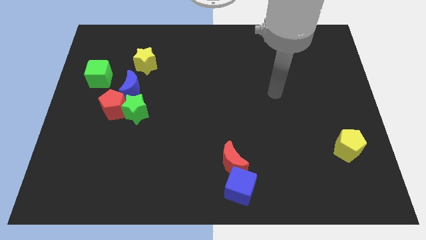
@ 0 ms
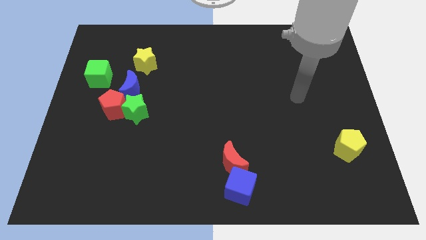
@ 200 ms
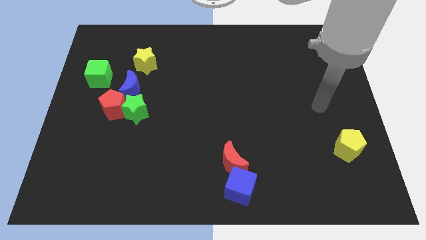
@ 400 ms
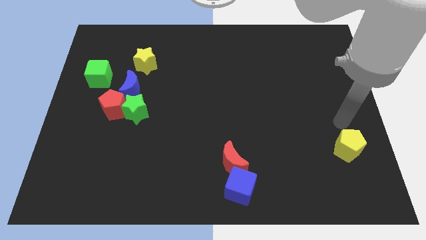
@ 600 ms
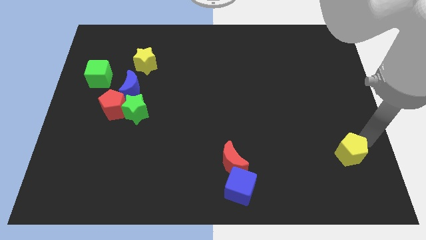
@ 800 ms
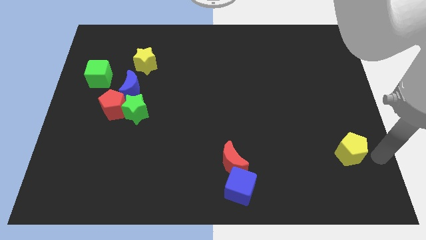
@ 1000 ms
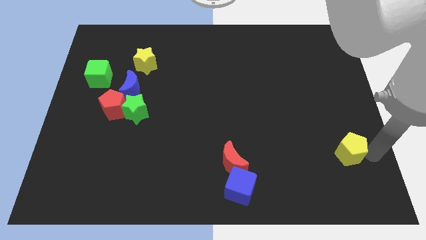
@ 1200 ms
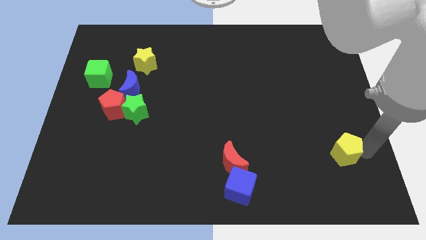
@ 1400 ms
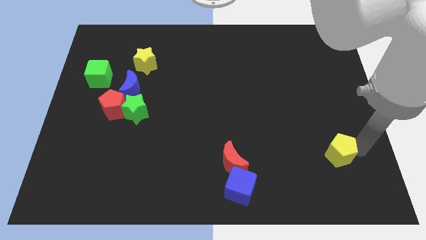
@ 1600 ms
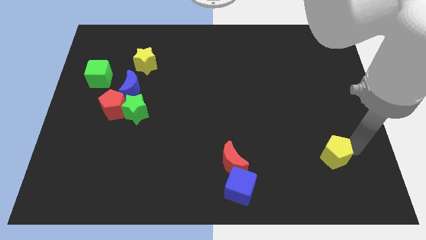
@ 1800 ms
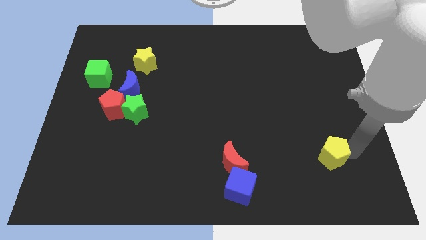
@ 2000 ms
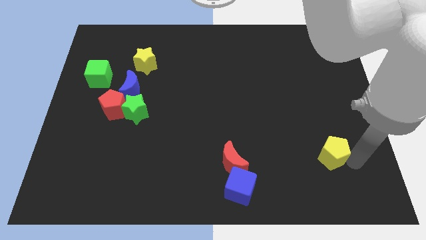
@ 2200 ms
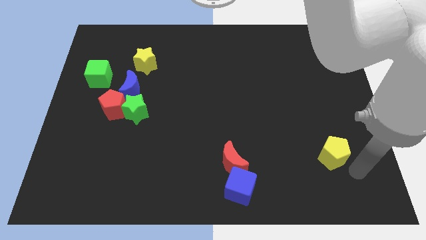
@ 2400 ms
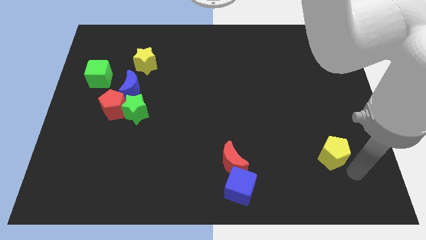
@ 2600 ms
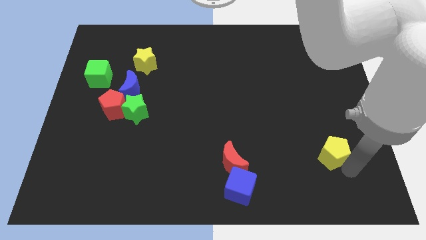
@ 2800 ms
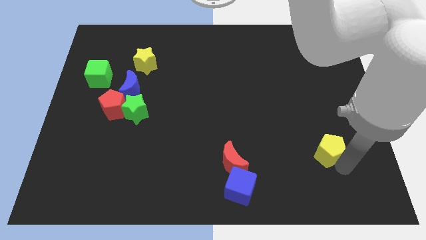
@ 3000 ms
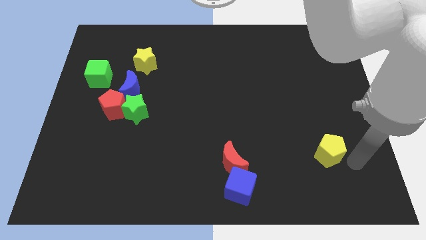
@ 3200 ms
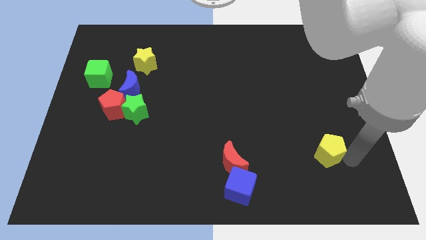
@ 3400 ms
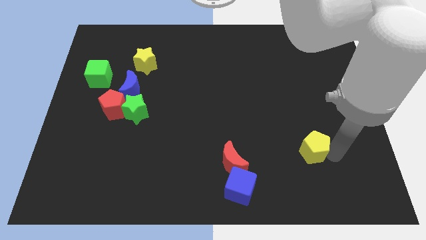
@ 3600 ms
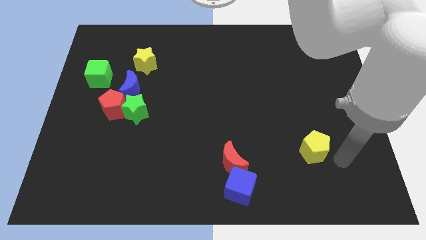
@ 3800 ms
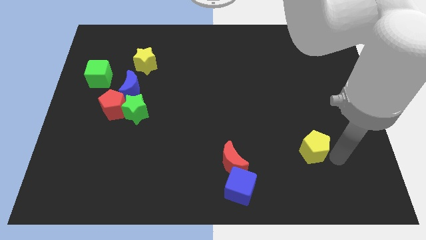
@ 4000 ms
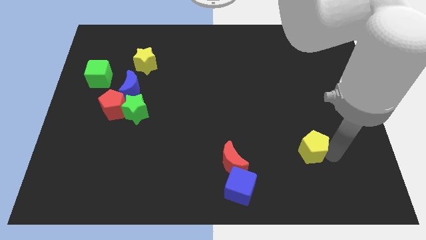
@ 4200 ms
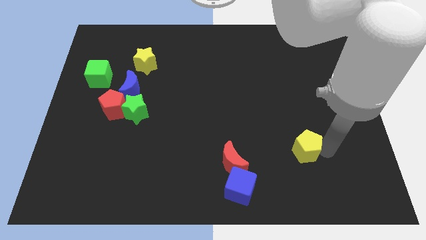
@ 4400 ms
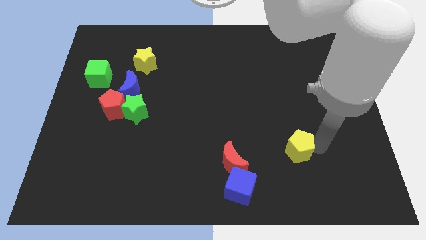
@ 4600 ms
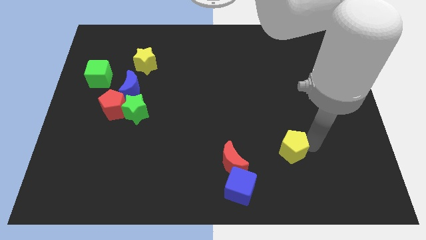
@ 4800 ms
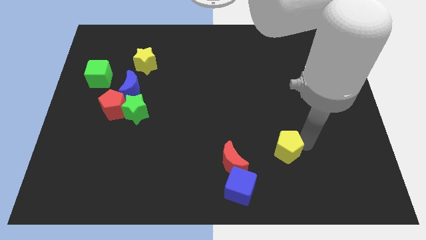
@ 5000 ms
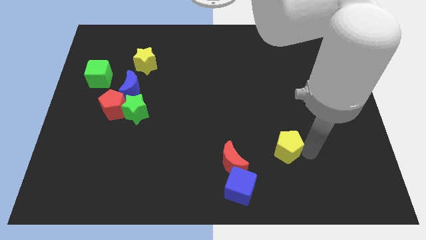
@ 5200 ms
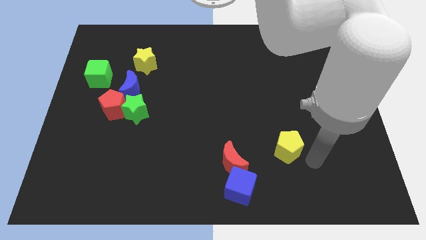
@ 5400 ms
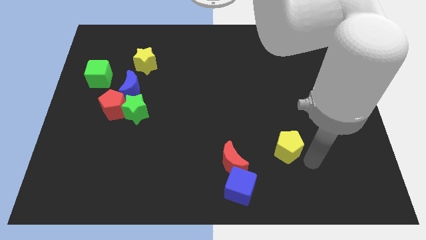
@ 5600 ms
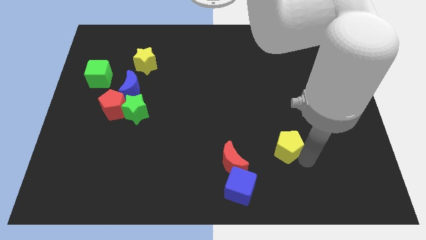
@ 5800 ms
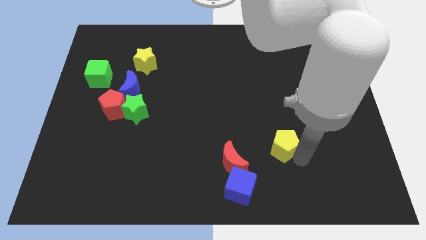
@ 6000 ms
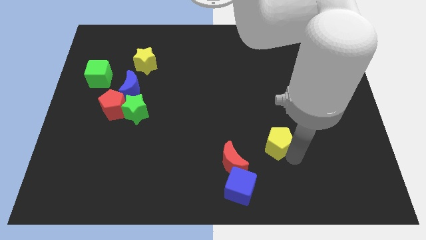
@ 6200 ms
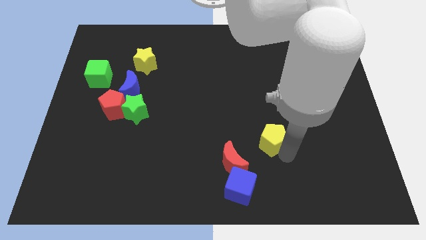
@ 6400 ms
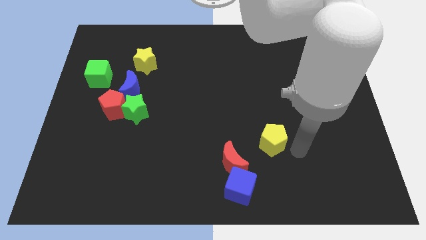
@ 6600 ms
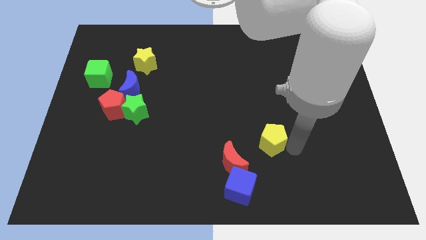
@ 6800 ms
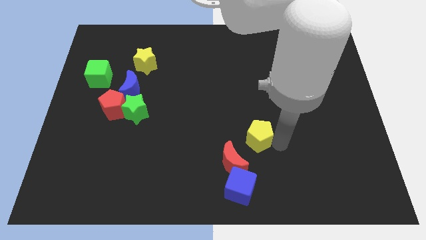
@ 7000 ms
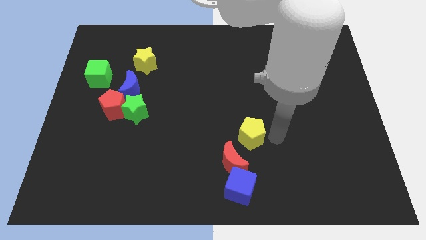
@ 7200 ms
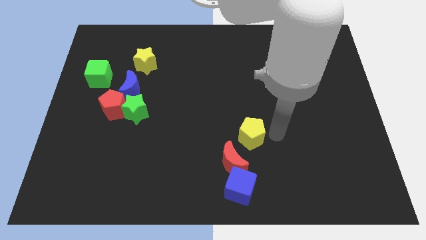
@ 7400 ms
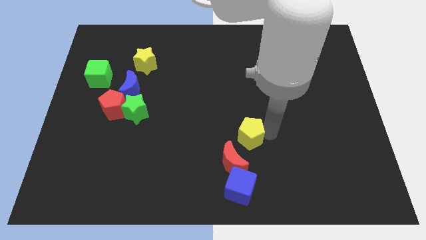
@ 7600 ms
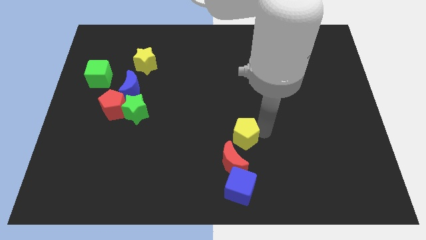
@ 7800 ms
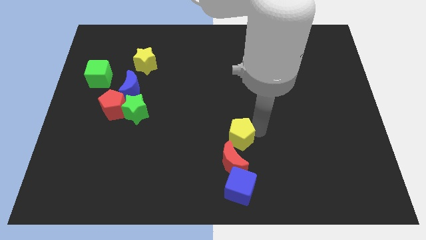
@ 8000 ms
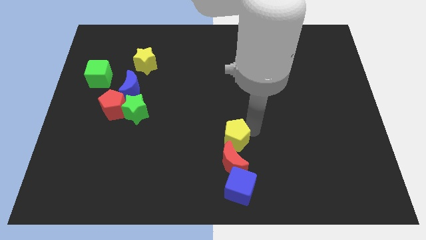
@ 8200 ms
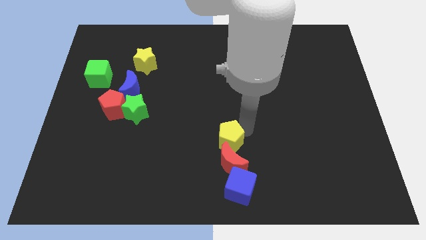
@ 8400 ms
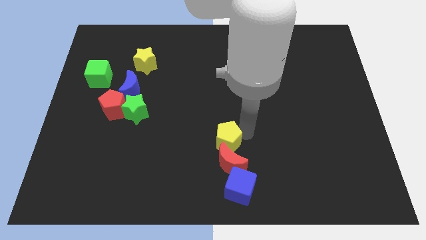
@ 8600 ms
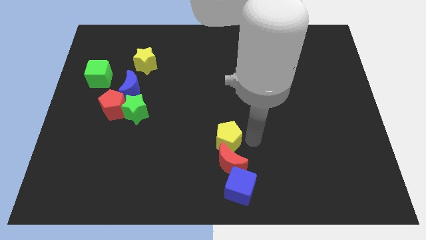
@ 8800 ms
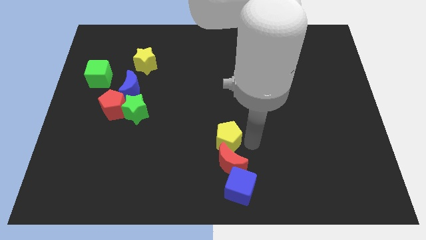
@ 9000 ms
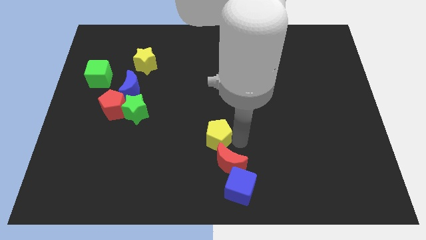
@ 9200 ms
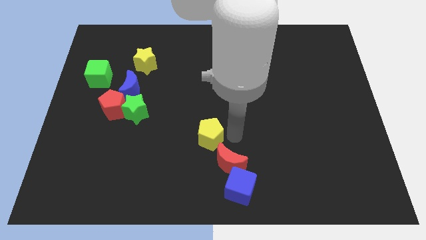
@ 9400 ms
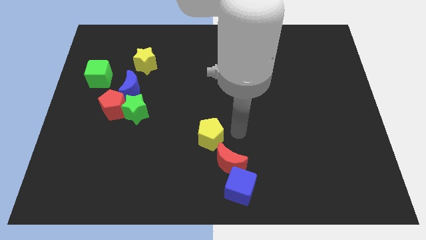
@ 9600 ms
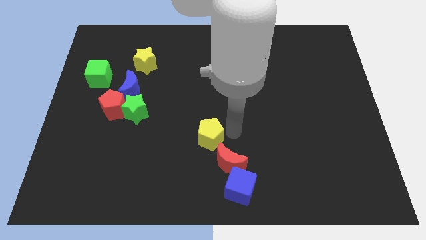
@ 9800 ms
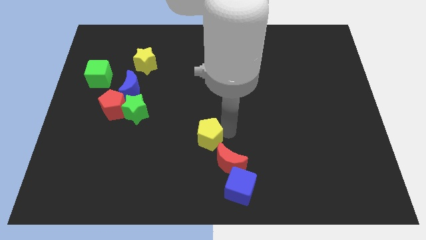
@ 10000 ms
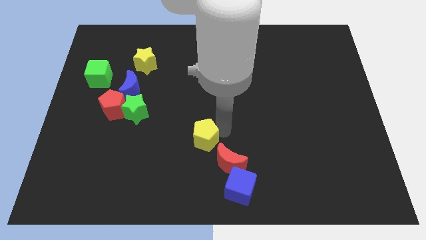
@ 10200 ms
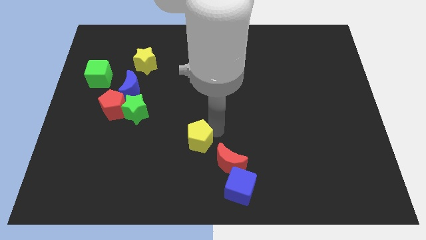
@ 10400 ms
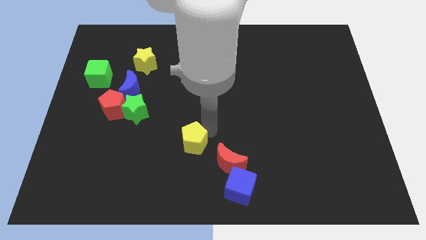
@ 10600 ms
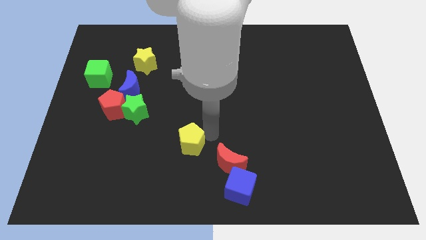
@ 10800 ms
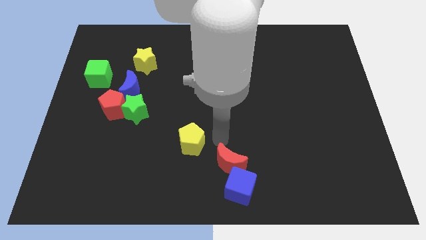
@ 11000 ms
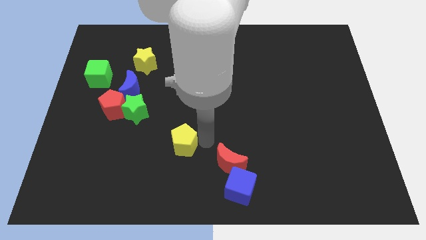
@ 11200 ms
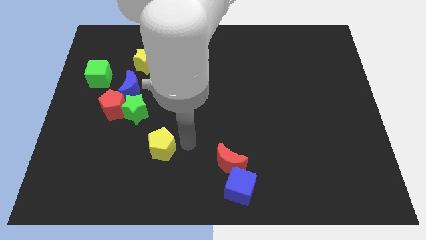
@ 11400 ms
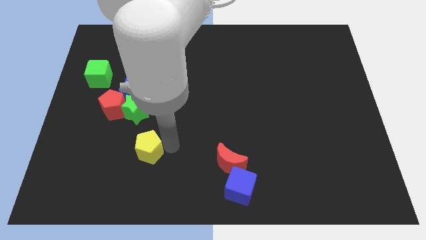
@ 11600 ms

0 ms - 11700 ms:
push the yellow pentagon below the green star

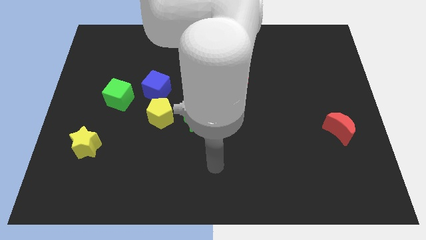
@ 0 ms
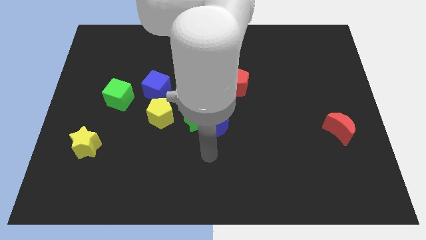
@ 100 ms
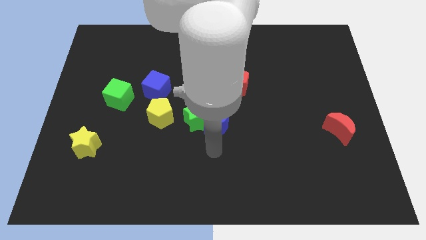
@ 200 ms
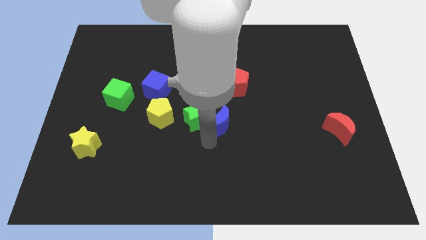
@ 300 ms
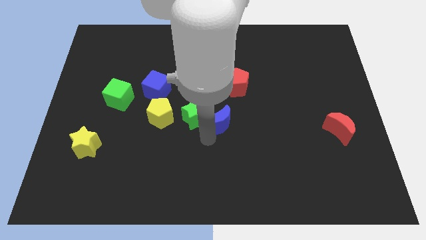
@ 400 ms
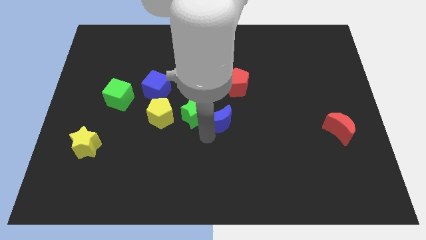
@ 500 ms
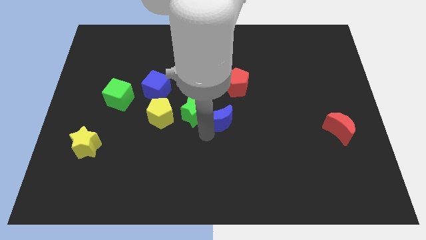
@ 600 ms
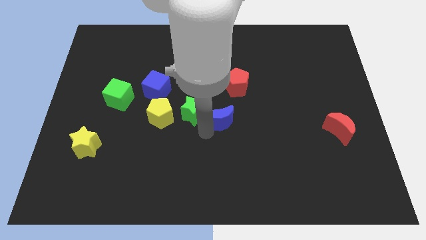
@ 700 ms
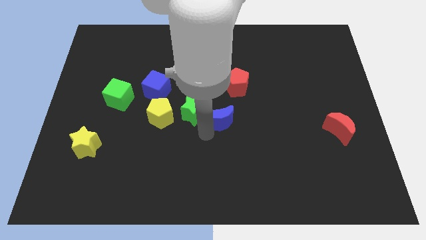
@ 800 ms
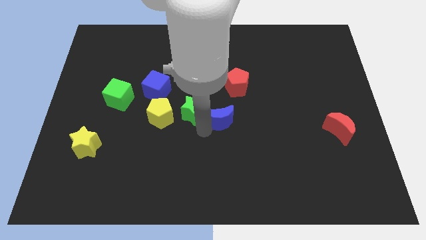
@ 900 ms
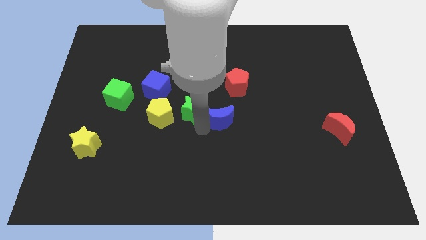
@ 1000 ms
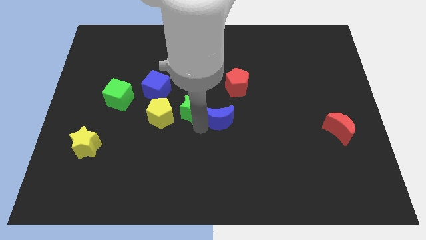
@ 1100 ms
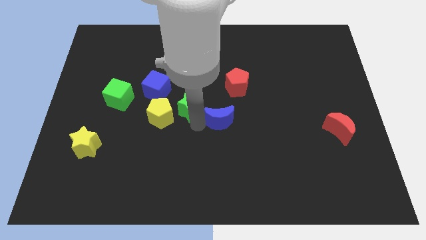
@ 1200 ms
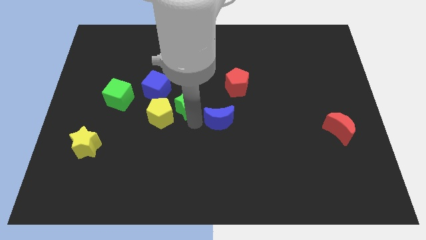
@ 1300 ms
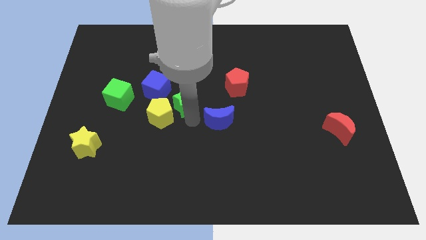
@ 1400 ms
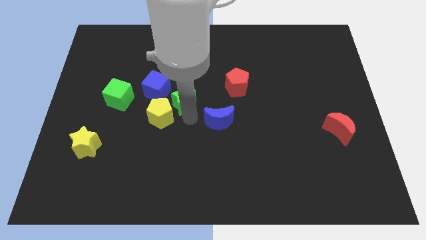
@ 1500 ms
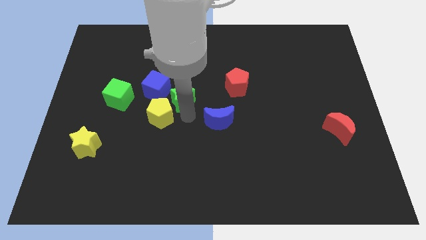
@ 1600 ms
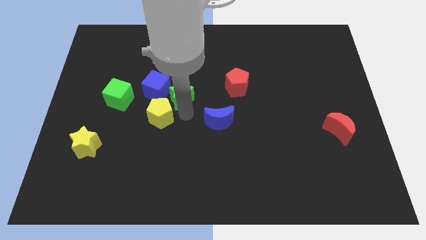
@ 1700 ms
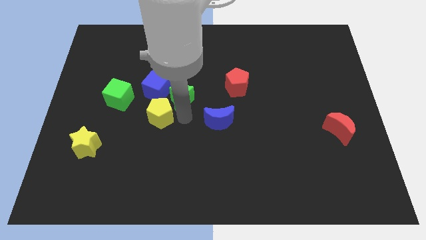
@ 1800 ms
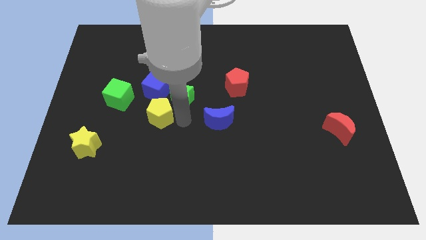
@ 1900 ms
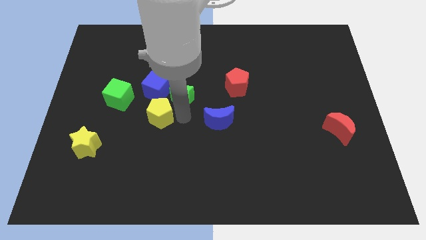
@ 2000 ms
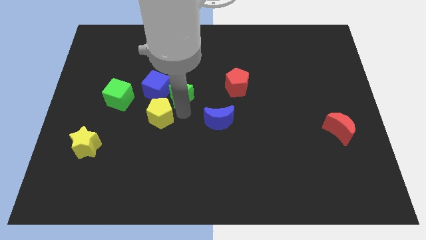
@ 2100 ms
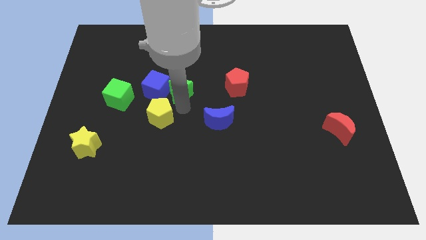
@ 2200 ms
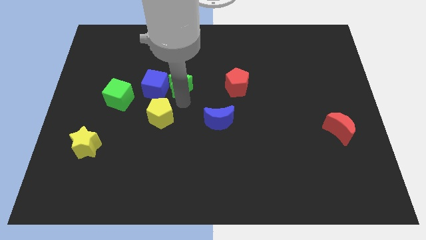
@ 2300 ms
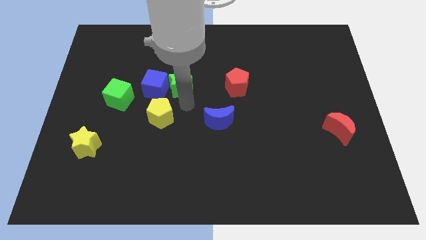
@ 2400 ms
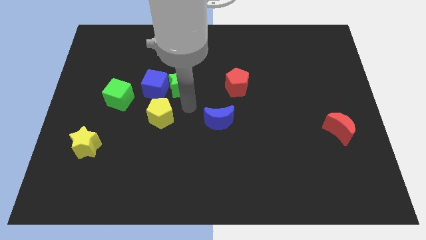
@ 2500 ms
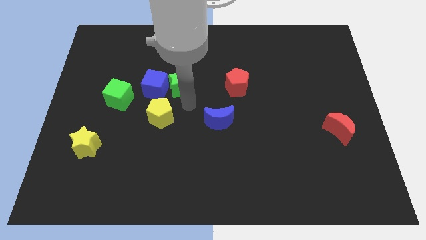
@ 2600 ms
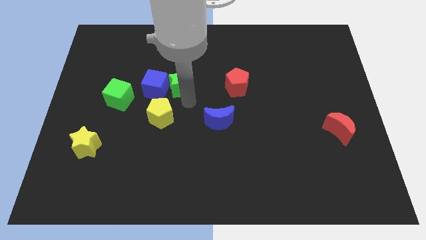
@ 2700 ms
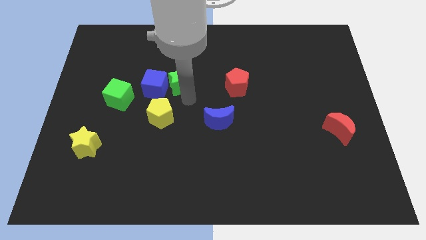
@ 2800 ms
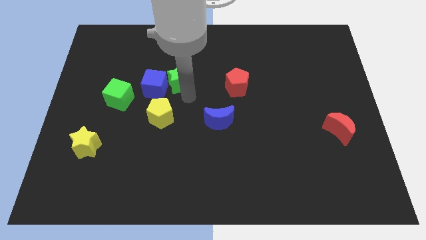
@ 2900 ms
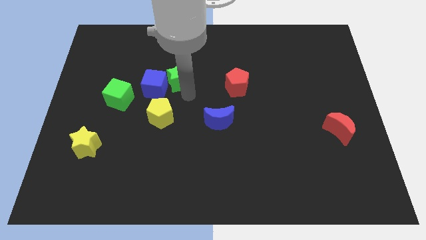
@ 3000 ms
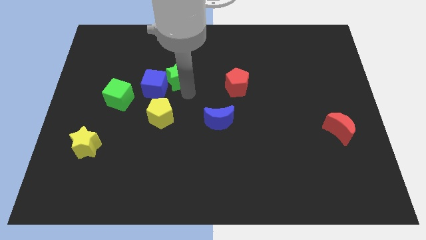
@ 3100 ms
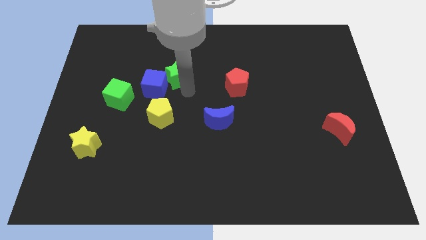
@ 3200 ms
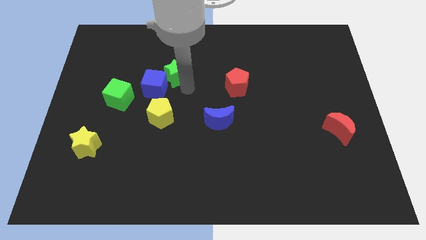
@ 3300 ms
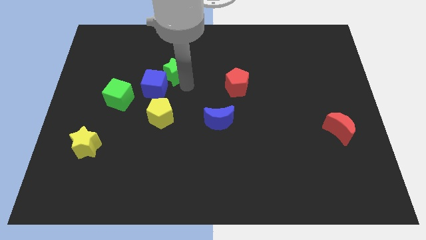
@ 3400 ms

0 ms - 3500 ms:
put the green star above the blue cube
